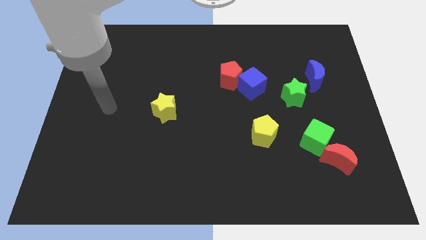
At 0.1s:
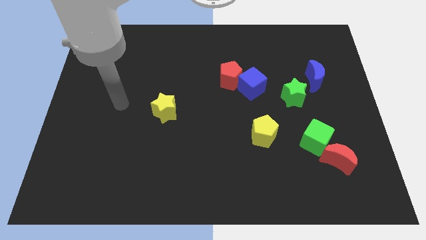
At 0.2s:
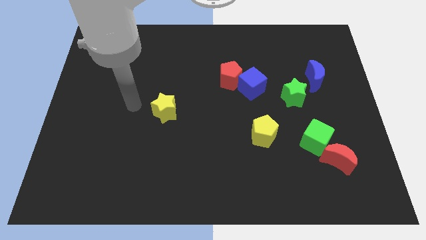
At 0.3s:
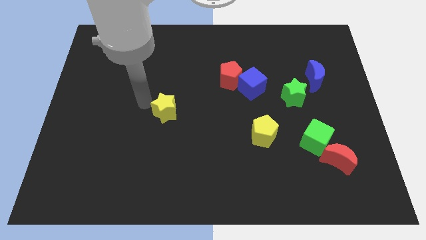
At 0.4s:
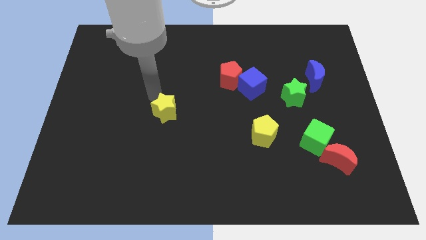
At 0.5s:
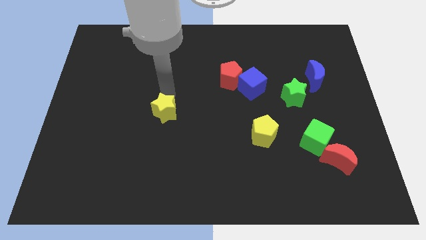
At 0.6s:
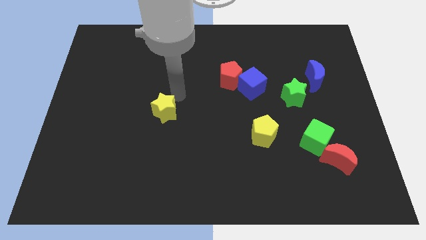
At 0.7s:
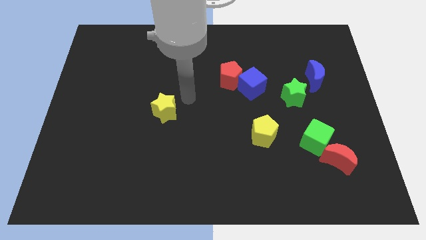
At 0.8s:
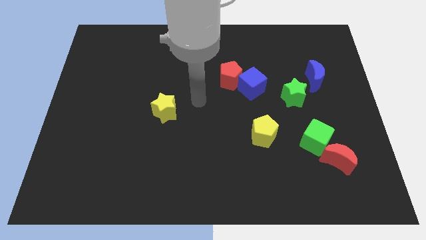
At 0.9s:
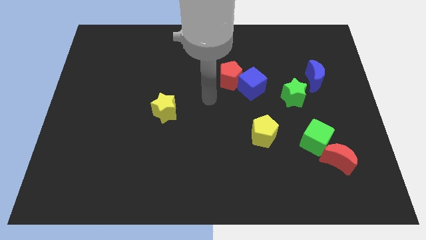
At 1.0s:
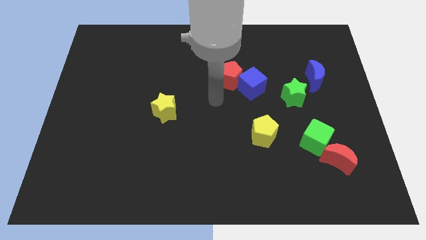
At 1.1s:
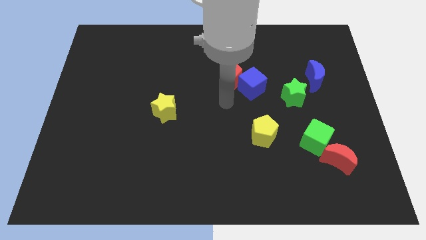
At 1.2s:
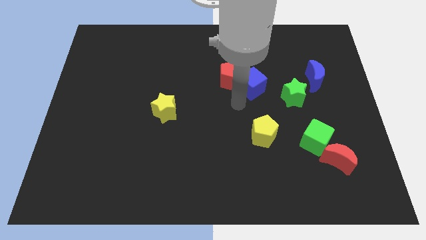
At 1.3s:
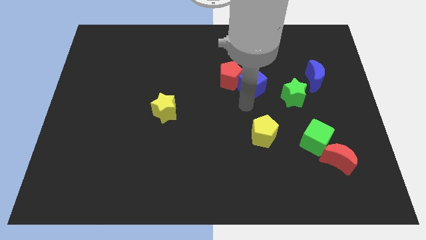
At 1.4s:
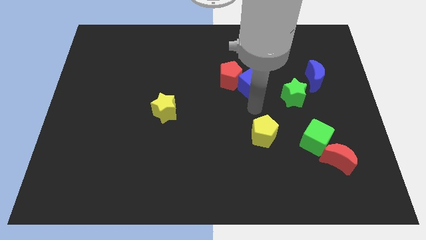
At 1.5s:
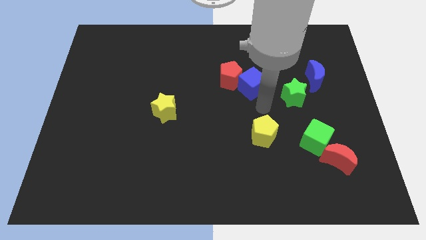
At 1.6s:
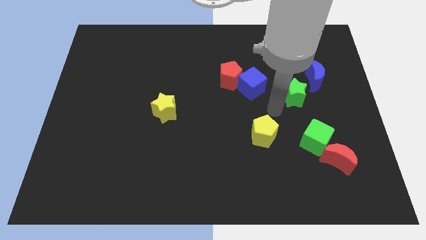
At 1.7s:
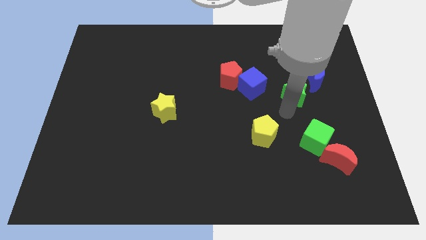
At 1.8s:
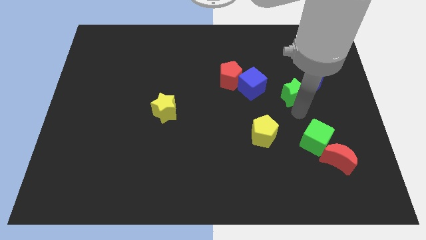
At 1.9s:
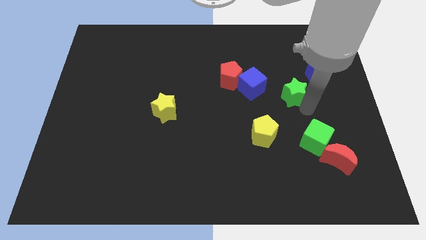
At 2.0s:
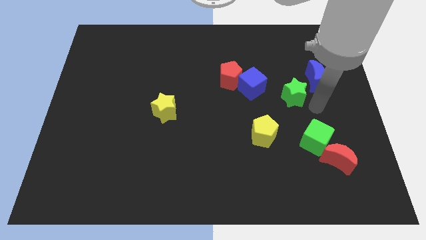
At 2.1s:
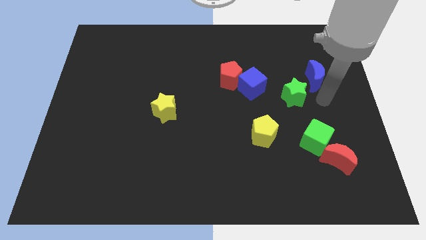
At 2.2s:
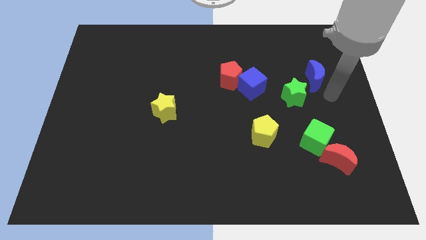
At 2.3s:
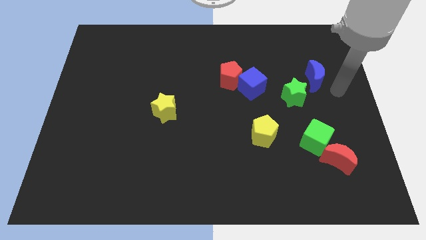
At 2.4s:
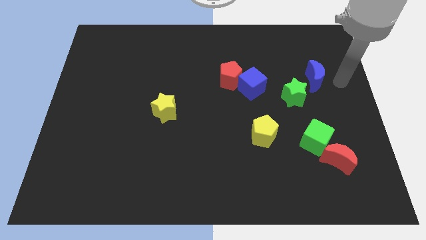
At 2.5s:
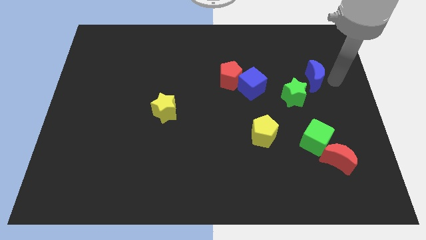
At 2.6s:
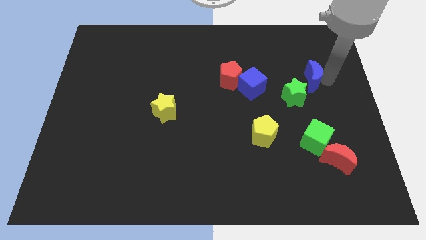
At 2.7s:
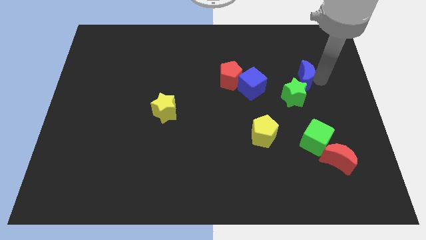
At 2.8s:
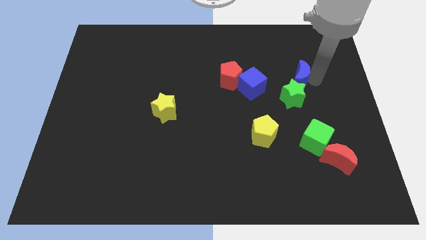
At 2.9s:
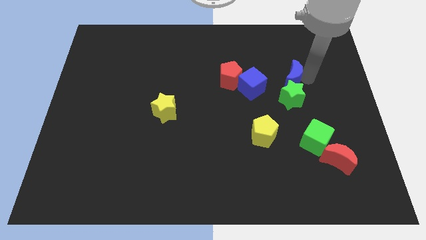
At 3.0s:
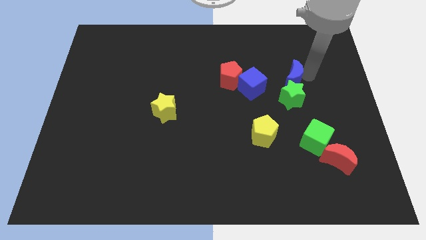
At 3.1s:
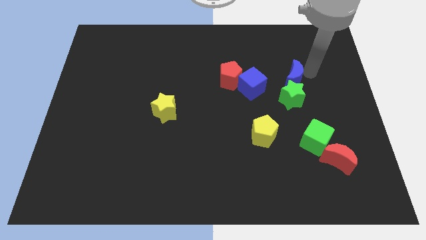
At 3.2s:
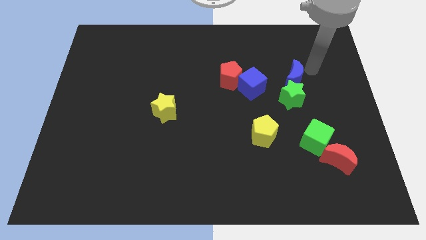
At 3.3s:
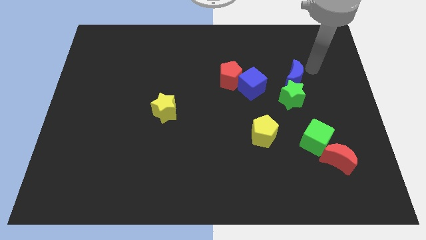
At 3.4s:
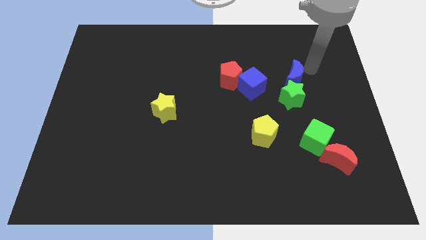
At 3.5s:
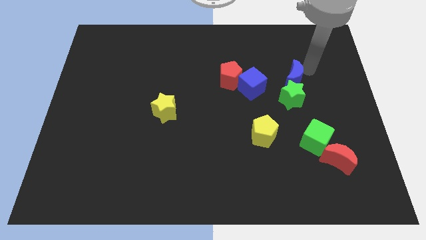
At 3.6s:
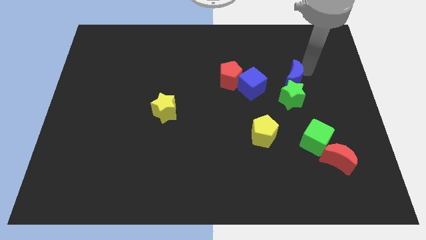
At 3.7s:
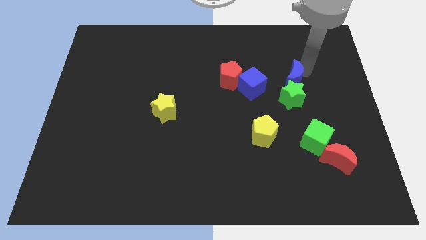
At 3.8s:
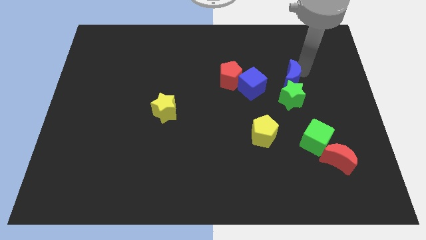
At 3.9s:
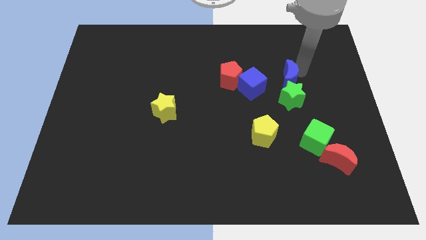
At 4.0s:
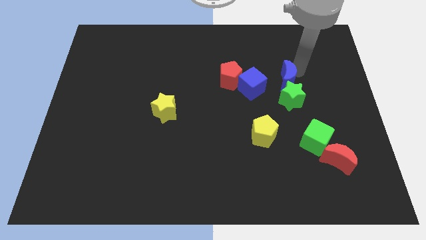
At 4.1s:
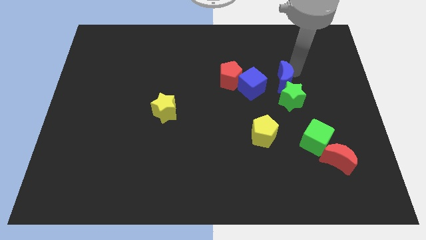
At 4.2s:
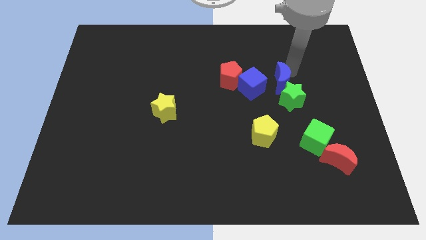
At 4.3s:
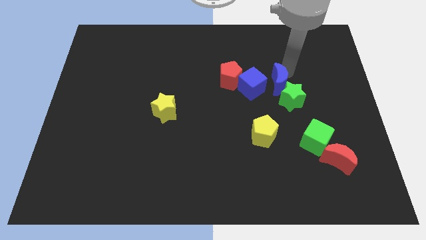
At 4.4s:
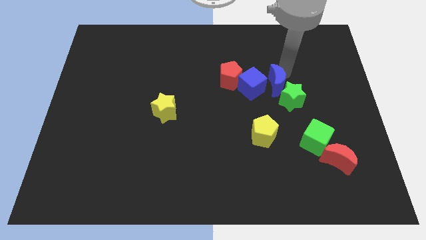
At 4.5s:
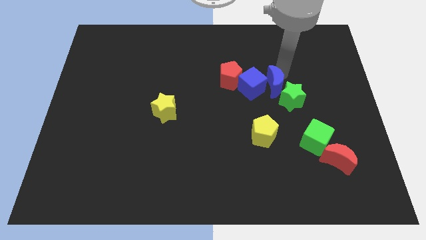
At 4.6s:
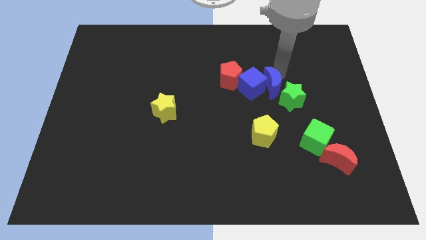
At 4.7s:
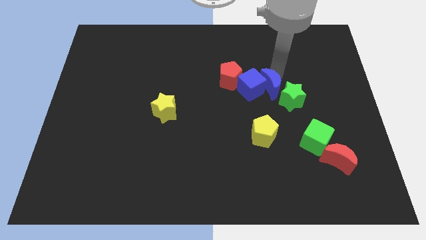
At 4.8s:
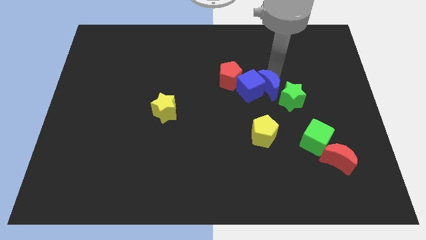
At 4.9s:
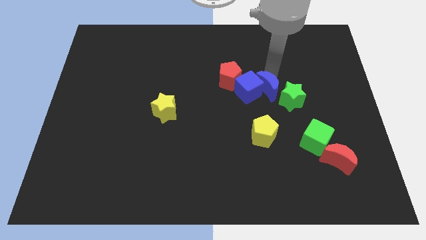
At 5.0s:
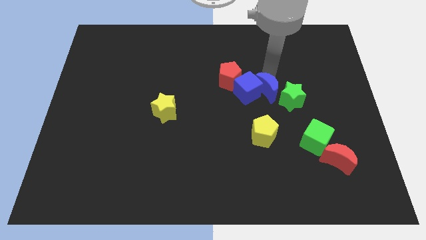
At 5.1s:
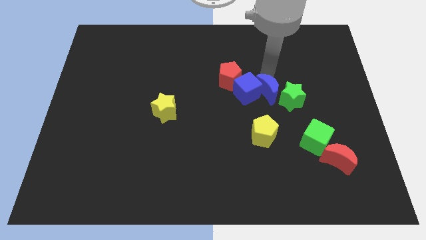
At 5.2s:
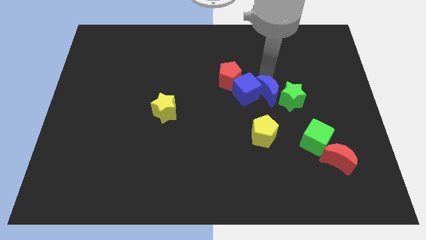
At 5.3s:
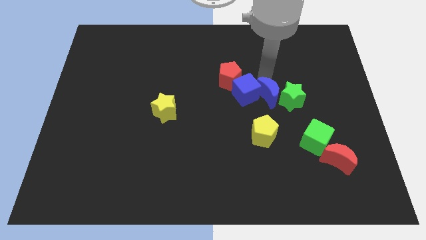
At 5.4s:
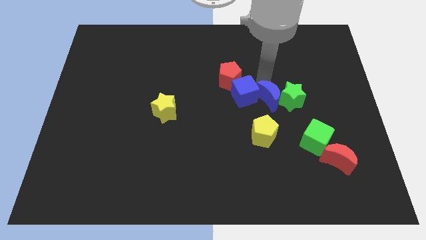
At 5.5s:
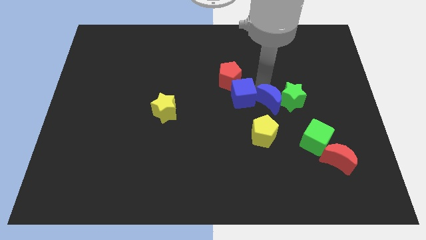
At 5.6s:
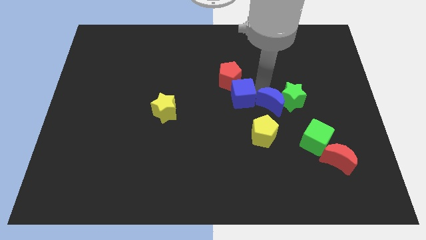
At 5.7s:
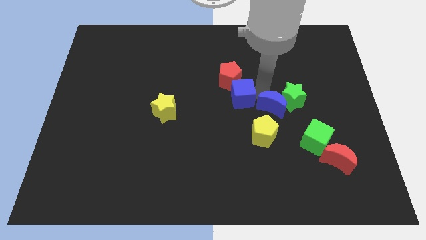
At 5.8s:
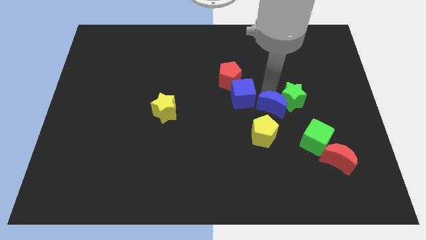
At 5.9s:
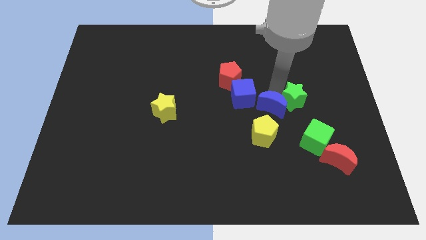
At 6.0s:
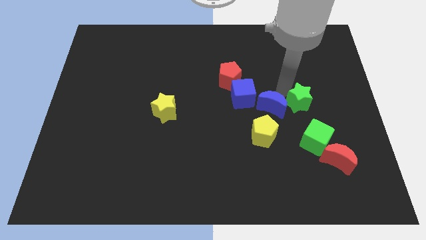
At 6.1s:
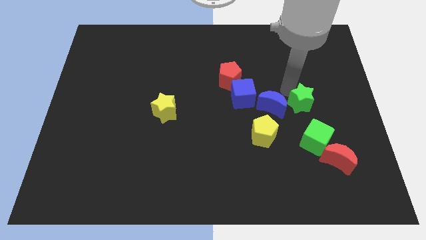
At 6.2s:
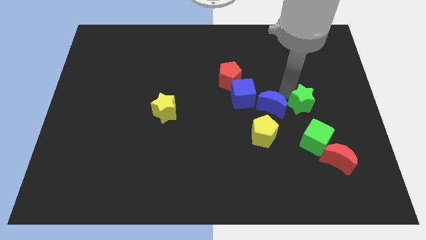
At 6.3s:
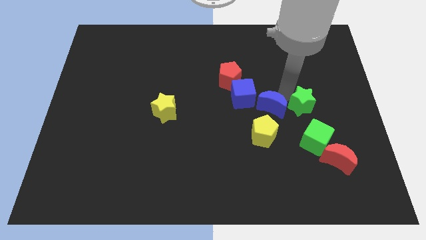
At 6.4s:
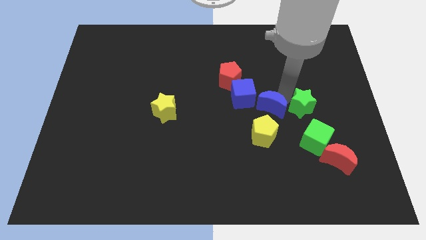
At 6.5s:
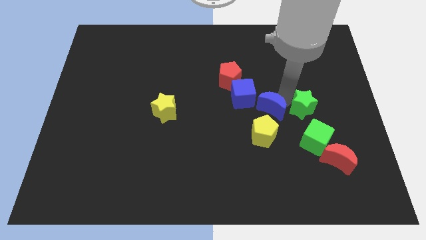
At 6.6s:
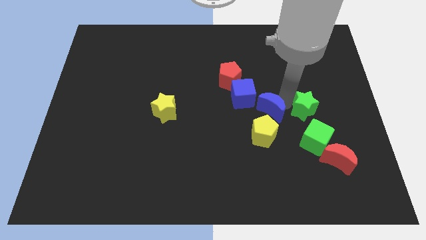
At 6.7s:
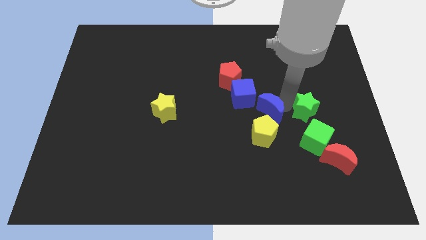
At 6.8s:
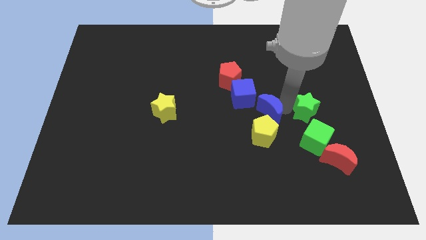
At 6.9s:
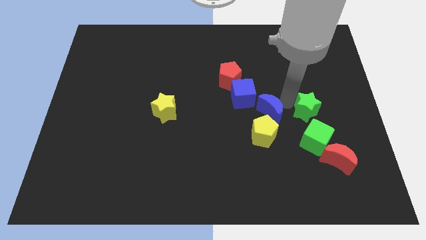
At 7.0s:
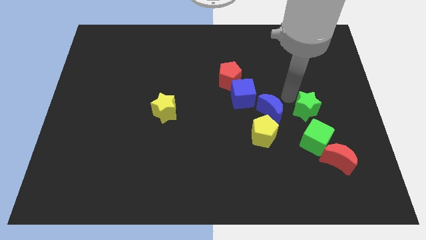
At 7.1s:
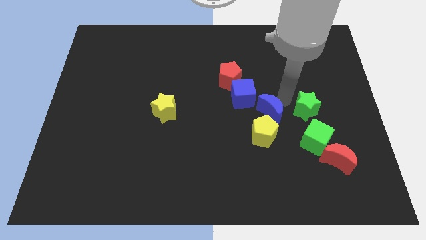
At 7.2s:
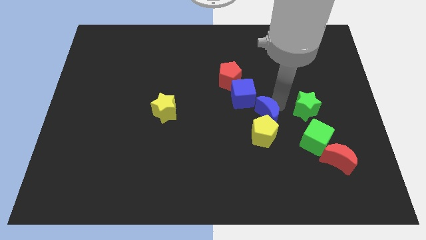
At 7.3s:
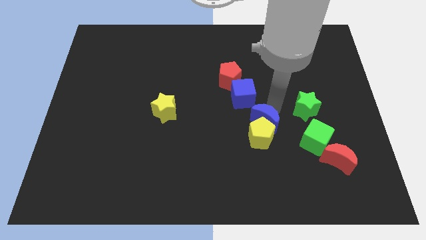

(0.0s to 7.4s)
put the blue moon to the bottom of the blue cube

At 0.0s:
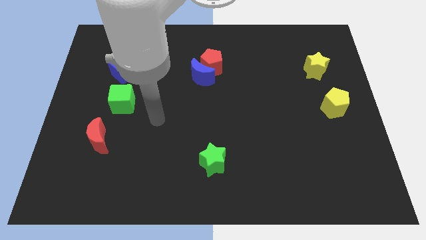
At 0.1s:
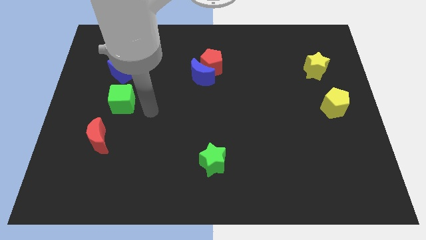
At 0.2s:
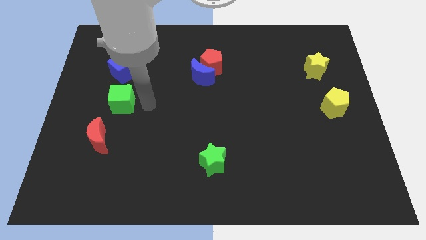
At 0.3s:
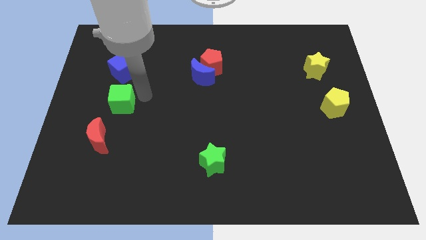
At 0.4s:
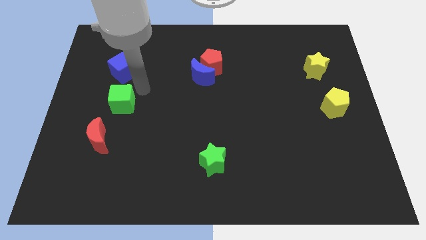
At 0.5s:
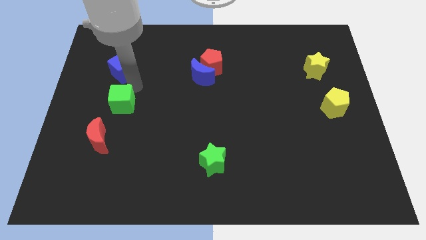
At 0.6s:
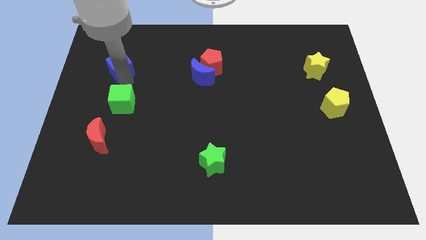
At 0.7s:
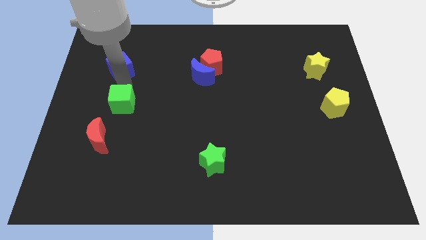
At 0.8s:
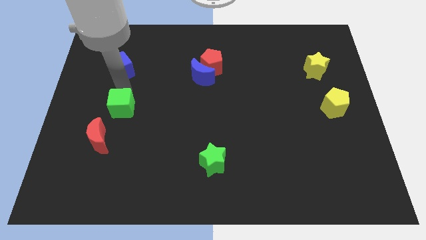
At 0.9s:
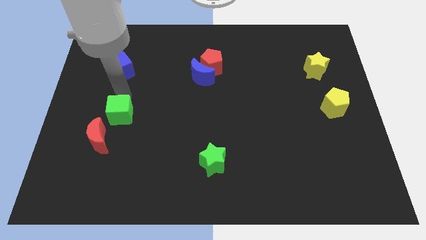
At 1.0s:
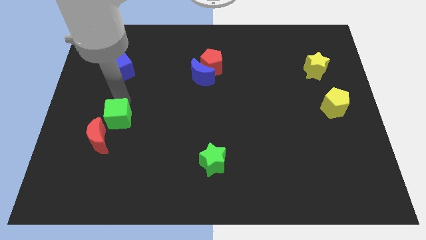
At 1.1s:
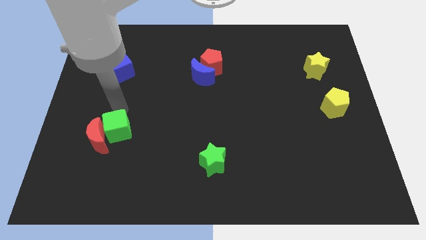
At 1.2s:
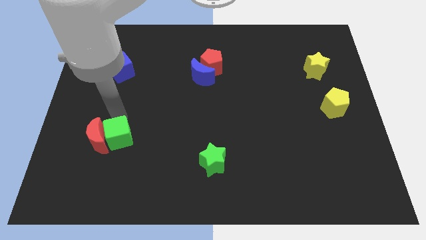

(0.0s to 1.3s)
move the green cube to the bottom right of the red moon
